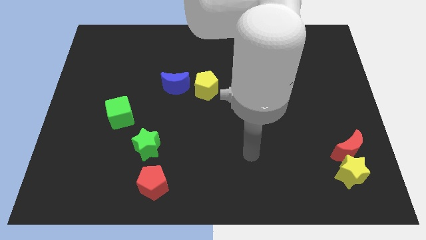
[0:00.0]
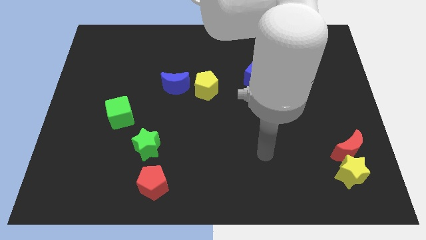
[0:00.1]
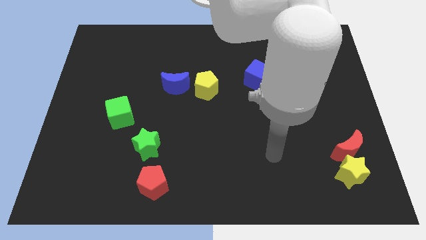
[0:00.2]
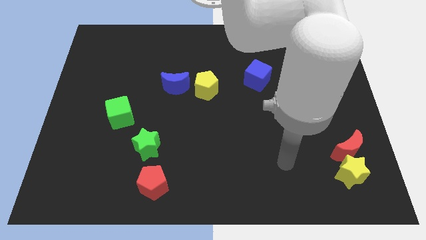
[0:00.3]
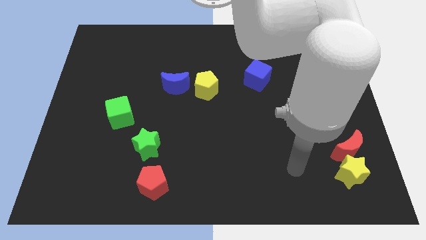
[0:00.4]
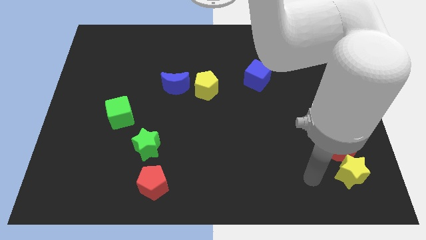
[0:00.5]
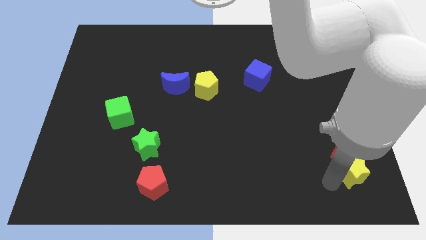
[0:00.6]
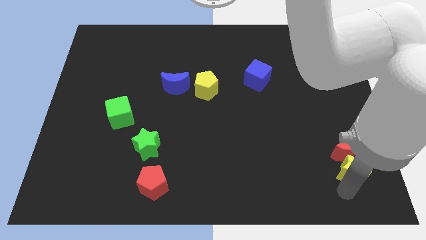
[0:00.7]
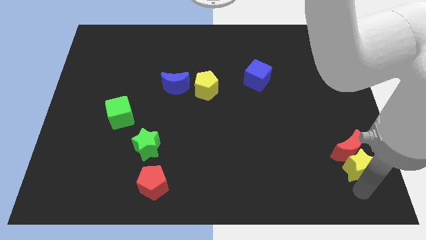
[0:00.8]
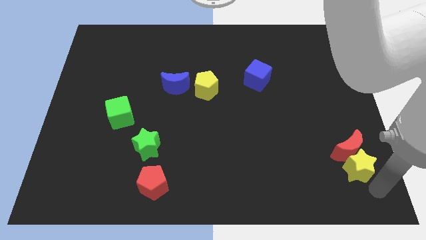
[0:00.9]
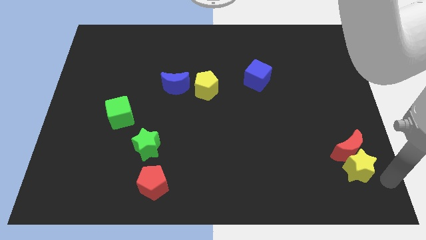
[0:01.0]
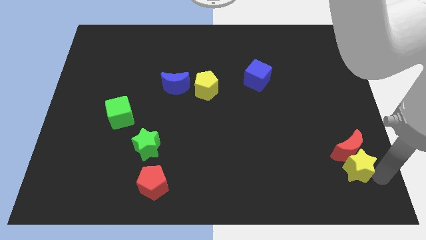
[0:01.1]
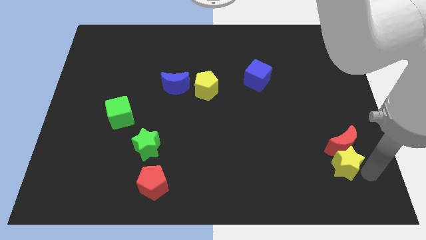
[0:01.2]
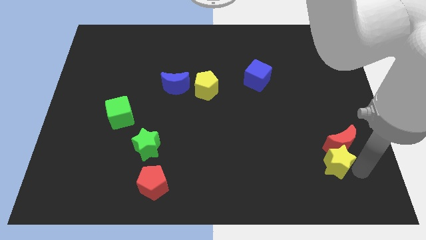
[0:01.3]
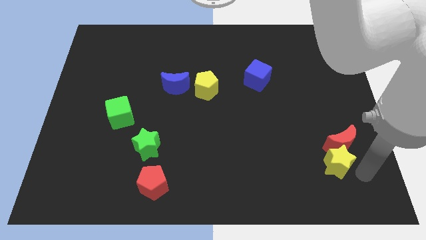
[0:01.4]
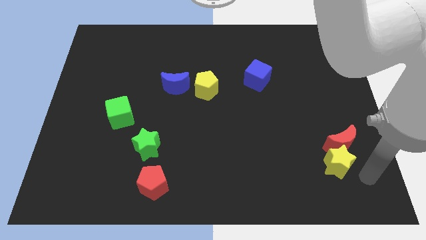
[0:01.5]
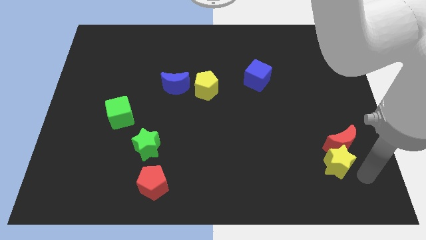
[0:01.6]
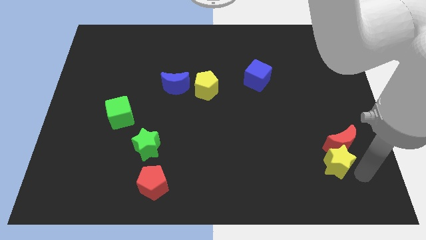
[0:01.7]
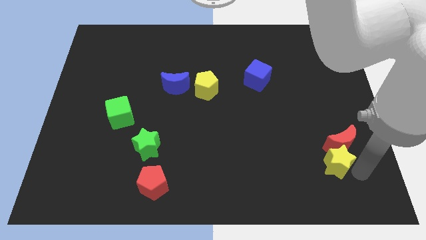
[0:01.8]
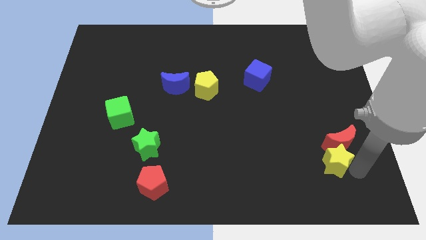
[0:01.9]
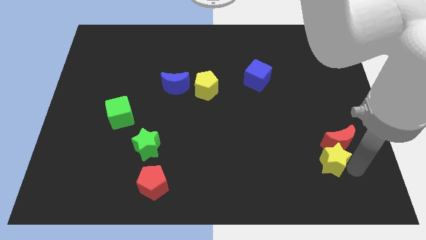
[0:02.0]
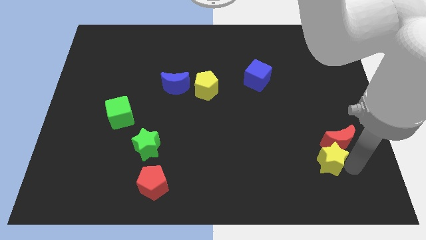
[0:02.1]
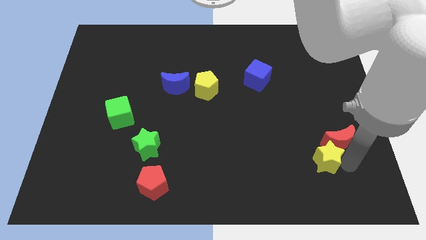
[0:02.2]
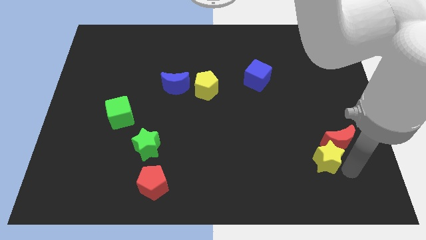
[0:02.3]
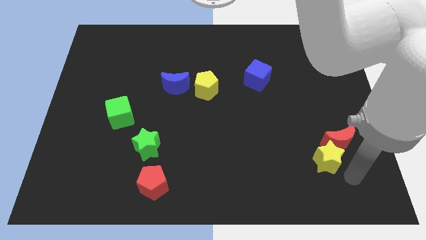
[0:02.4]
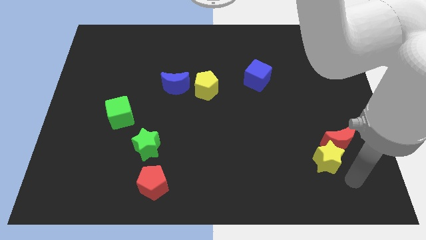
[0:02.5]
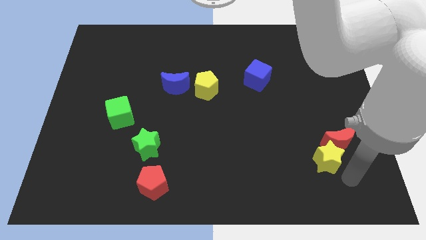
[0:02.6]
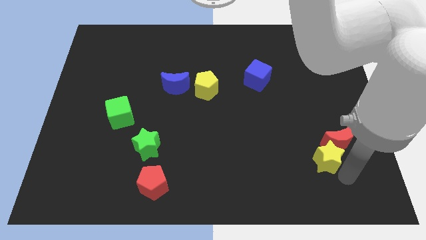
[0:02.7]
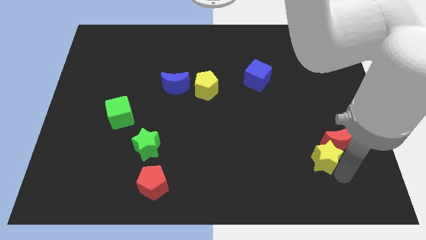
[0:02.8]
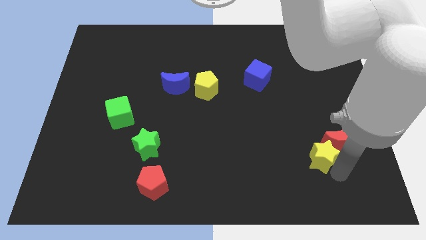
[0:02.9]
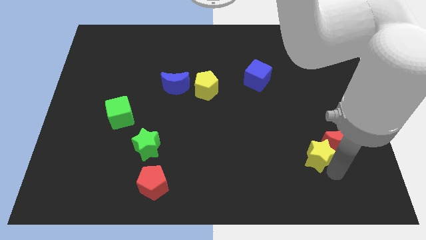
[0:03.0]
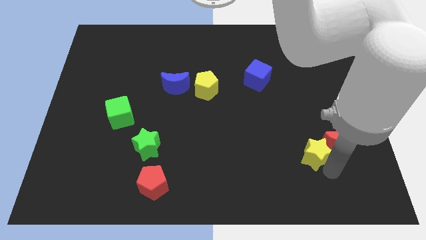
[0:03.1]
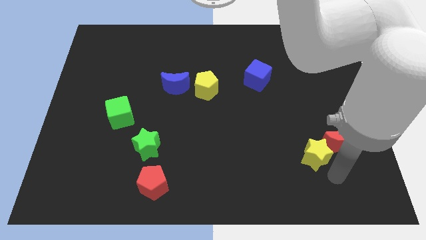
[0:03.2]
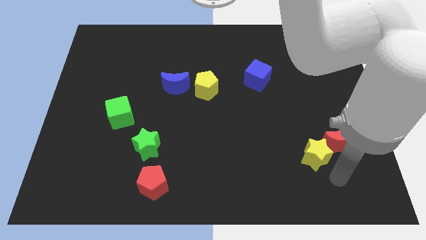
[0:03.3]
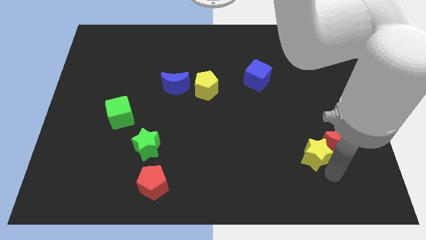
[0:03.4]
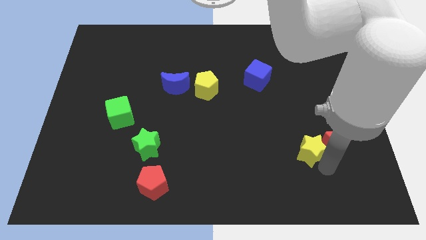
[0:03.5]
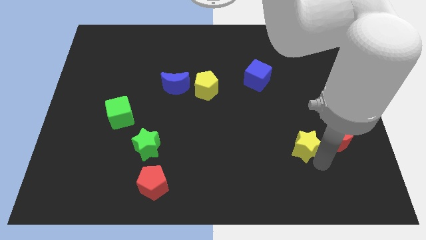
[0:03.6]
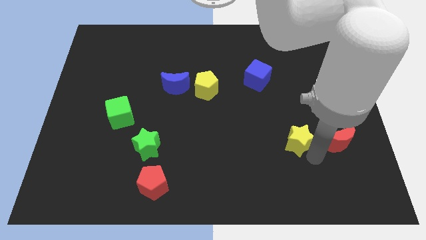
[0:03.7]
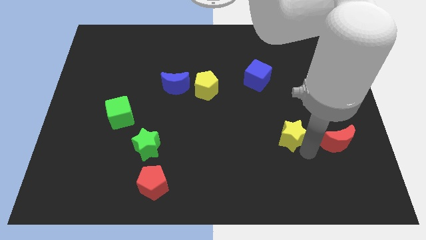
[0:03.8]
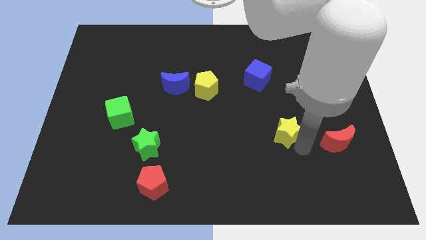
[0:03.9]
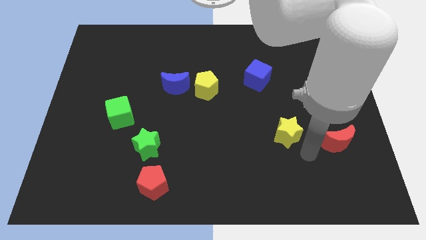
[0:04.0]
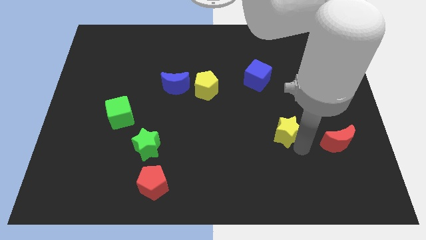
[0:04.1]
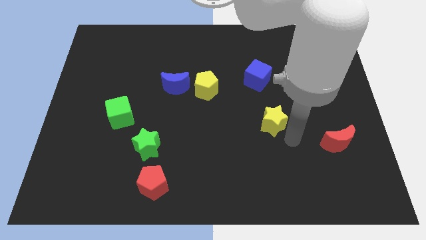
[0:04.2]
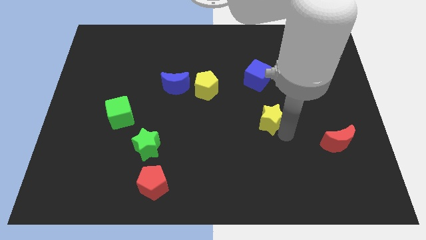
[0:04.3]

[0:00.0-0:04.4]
push the yellow star upwards and to the left

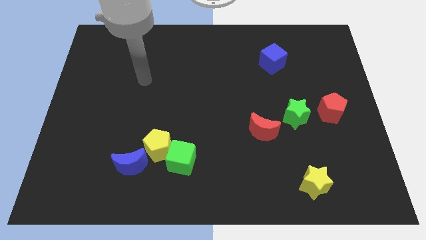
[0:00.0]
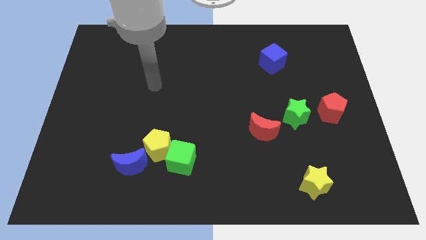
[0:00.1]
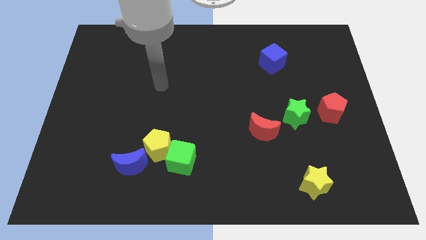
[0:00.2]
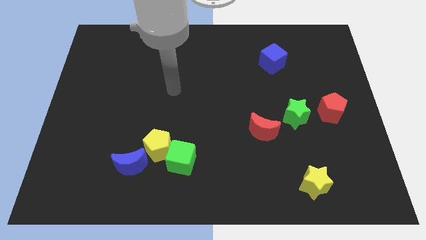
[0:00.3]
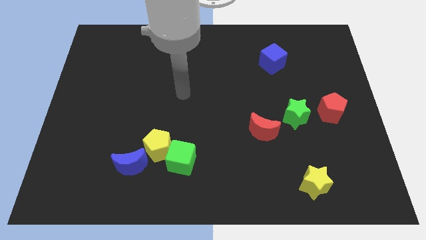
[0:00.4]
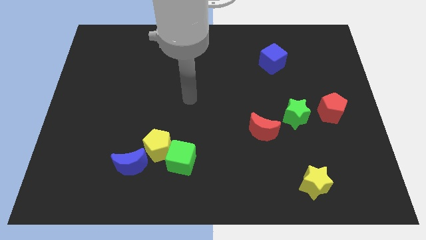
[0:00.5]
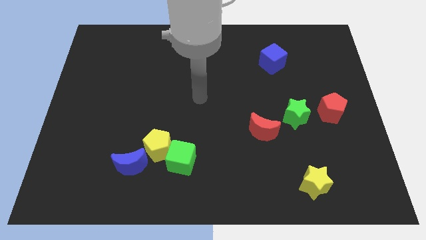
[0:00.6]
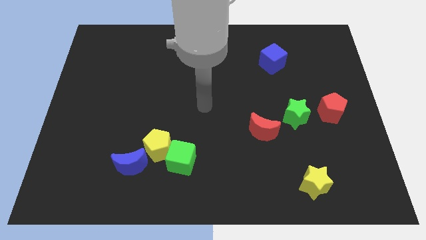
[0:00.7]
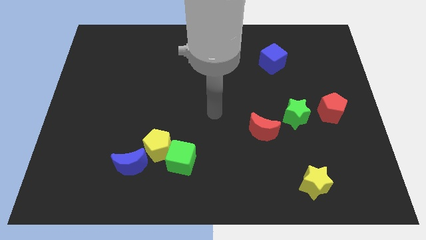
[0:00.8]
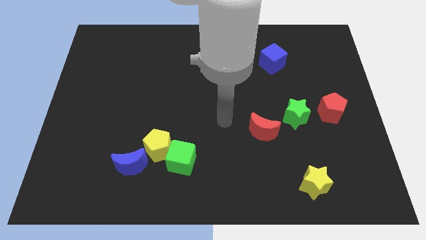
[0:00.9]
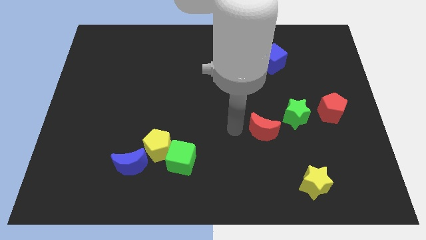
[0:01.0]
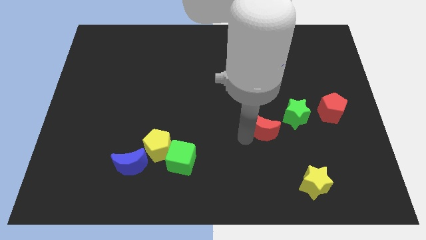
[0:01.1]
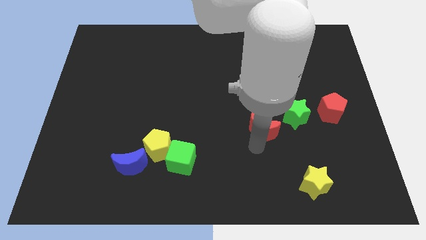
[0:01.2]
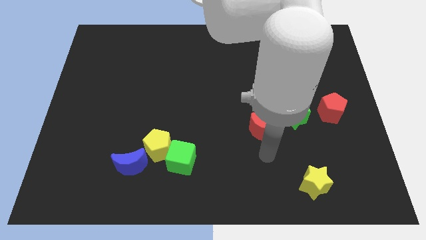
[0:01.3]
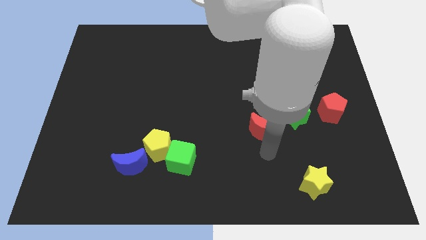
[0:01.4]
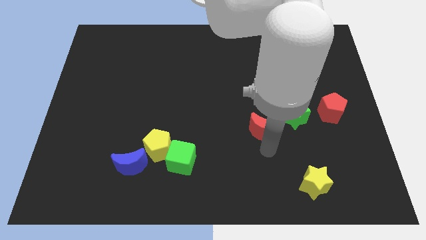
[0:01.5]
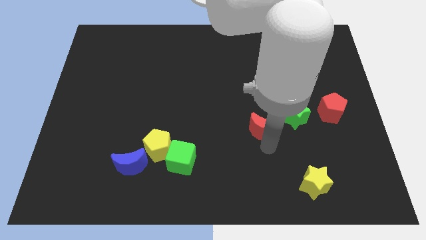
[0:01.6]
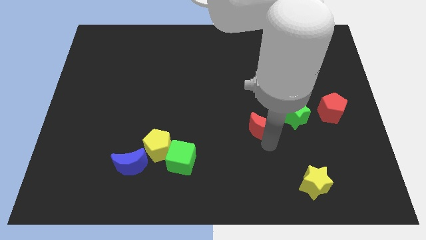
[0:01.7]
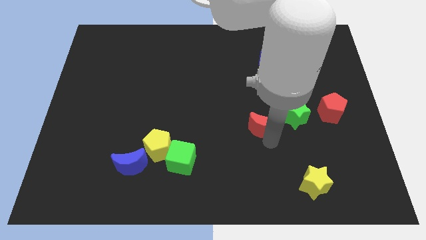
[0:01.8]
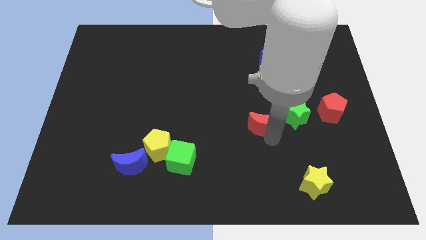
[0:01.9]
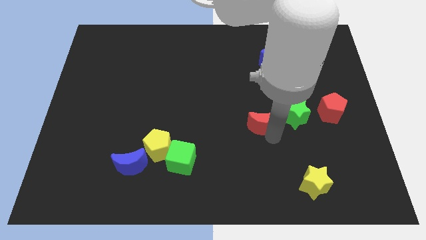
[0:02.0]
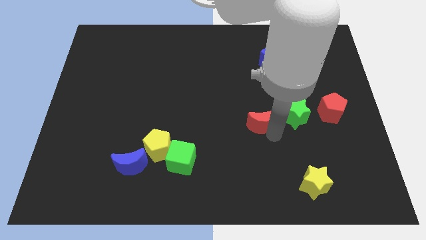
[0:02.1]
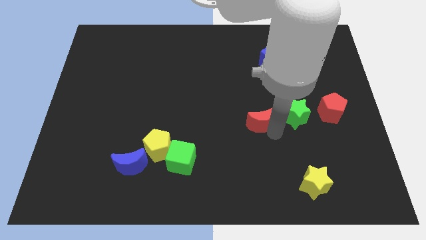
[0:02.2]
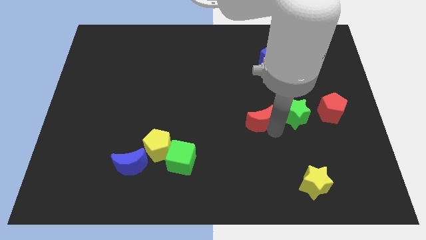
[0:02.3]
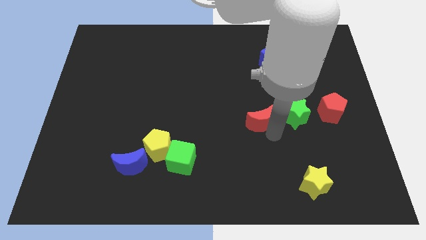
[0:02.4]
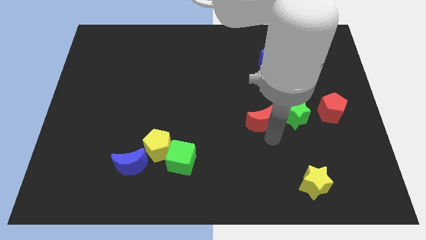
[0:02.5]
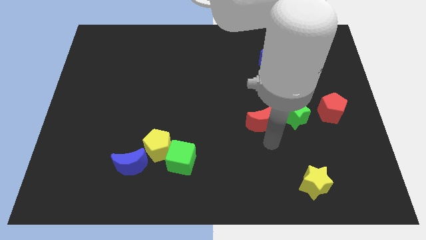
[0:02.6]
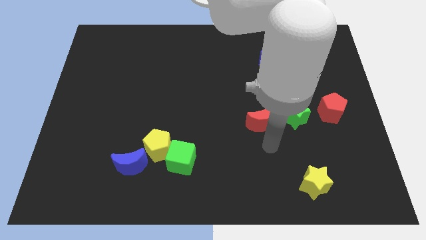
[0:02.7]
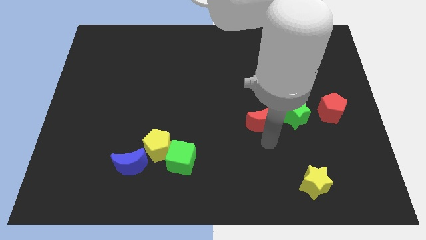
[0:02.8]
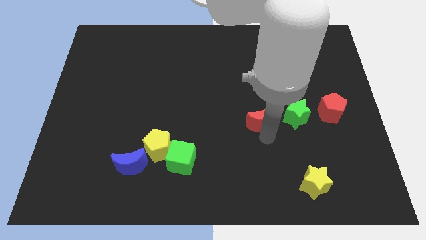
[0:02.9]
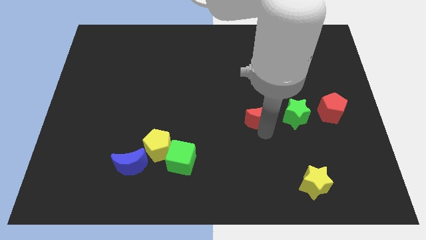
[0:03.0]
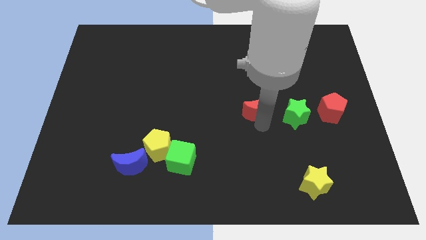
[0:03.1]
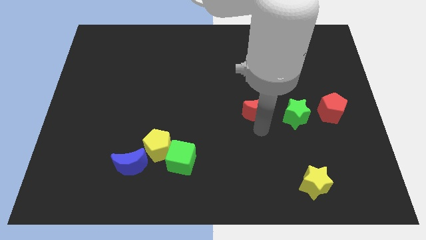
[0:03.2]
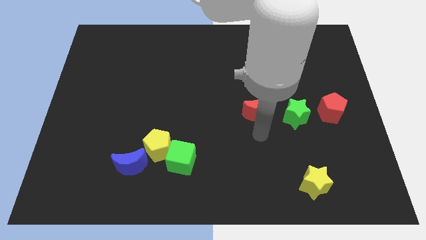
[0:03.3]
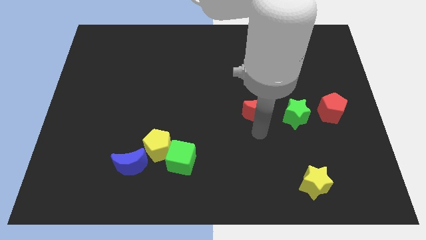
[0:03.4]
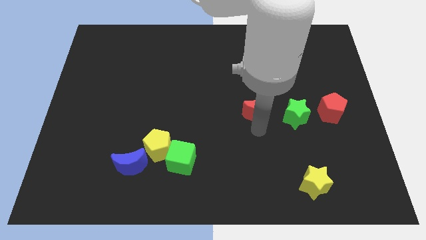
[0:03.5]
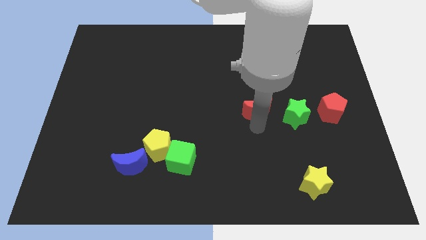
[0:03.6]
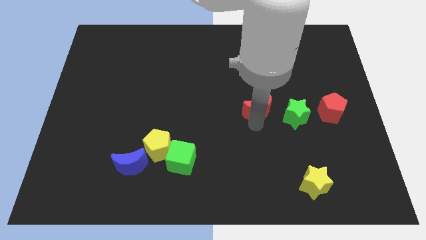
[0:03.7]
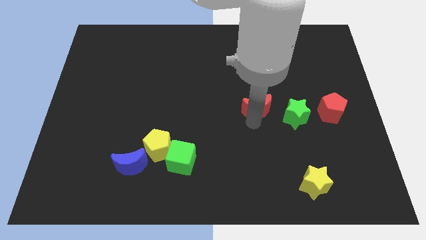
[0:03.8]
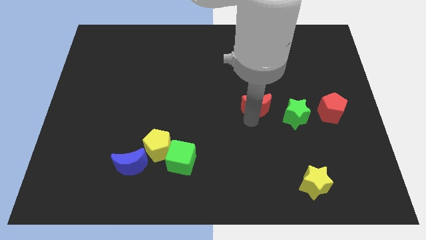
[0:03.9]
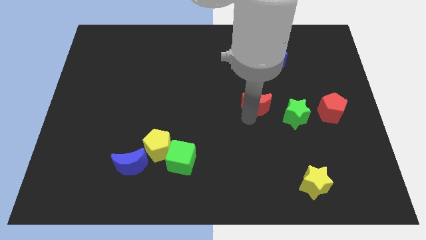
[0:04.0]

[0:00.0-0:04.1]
push the red moon a little bit up
